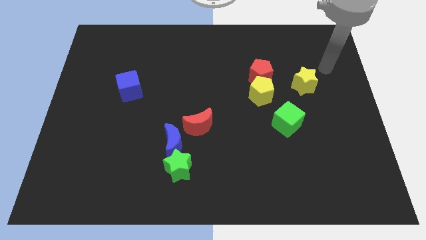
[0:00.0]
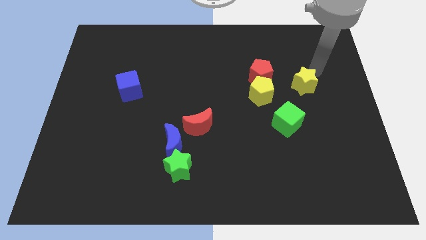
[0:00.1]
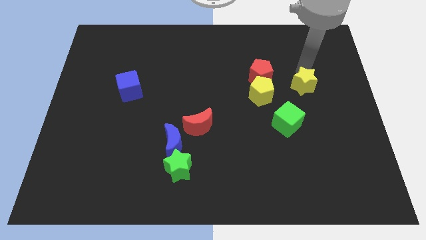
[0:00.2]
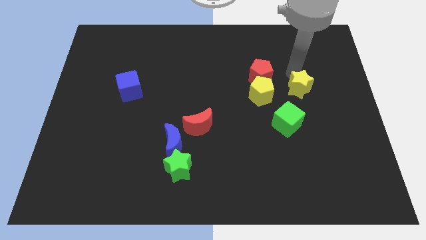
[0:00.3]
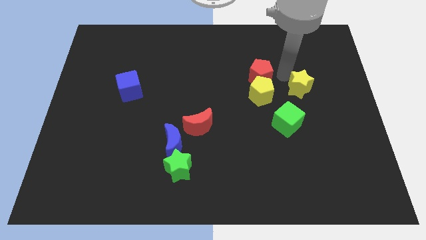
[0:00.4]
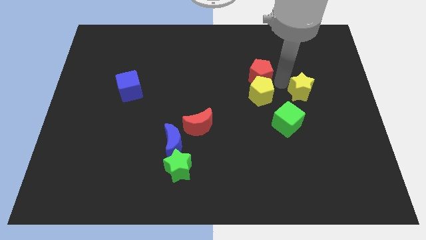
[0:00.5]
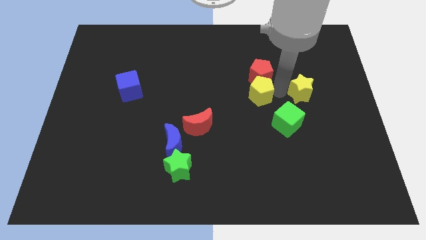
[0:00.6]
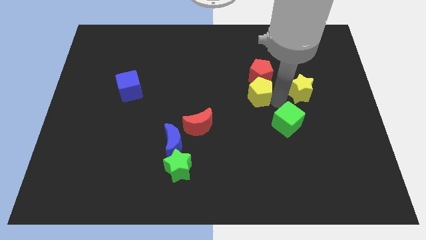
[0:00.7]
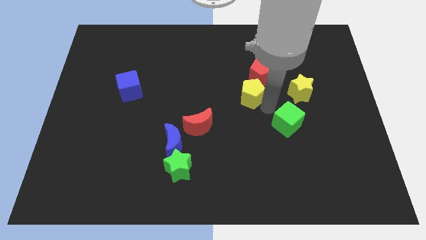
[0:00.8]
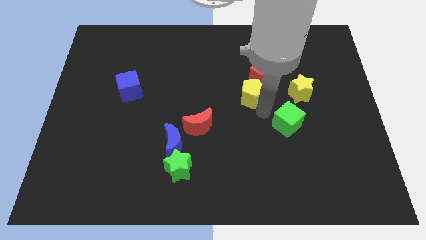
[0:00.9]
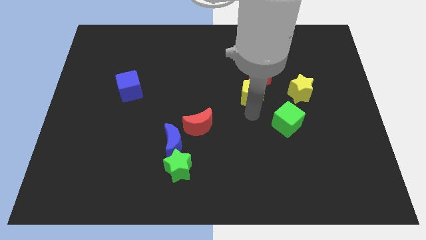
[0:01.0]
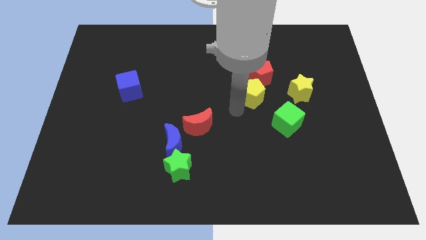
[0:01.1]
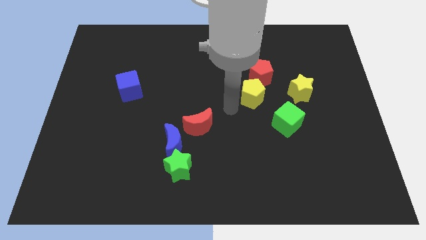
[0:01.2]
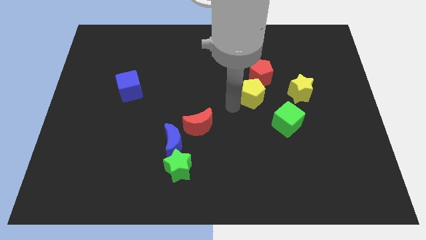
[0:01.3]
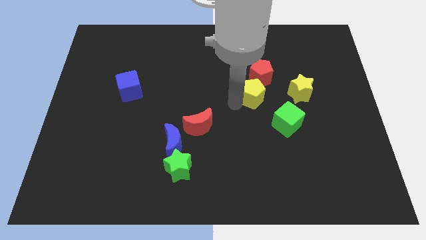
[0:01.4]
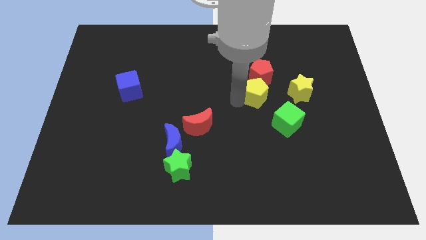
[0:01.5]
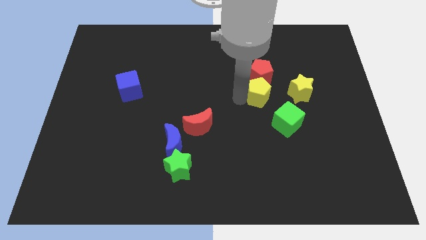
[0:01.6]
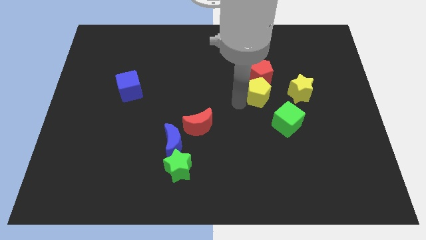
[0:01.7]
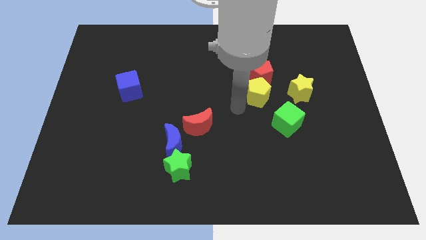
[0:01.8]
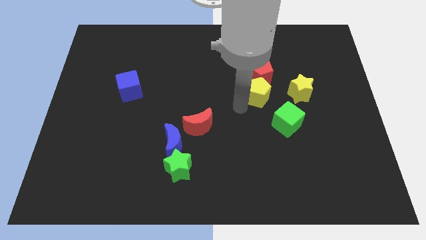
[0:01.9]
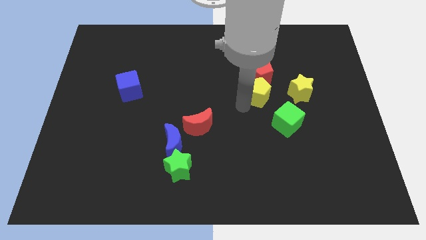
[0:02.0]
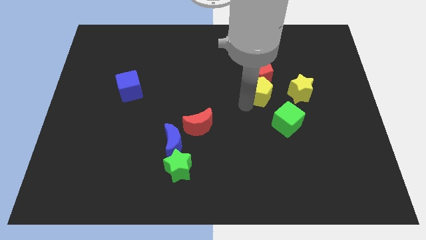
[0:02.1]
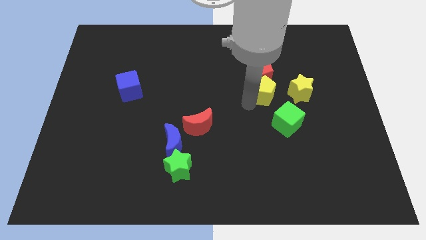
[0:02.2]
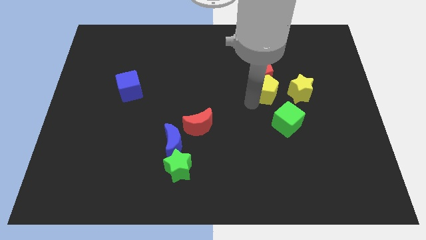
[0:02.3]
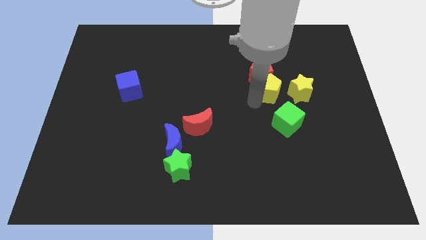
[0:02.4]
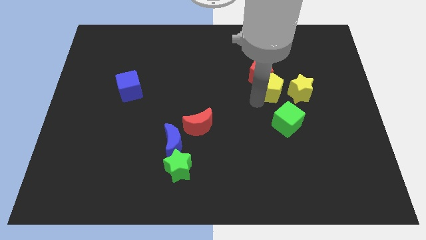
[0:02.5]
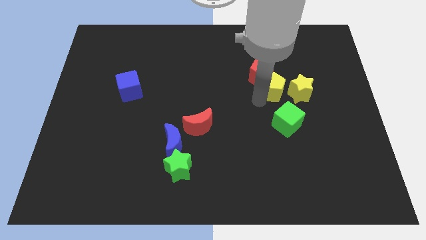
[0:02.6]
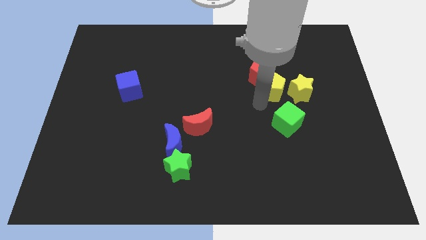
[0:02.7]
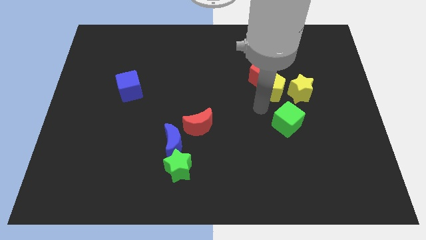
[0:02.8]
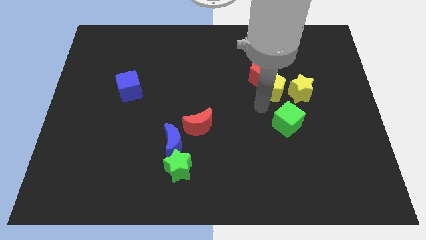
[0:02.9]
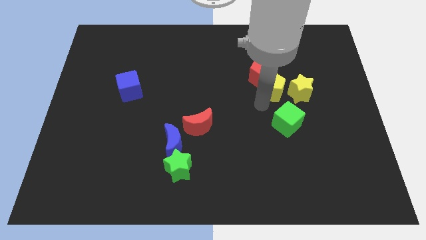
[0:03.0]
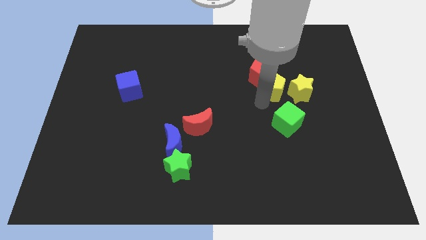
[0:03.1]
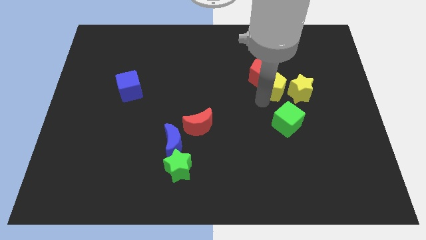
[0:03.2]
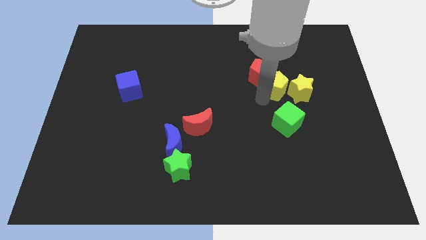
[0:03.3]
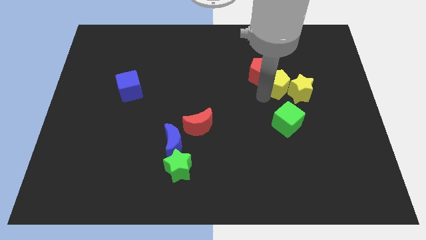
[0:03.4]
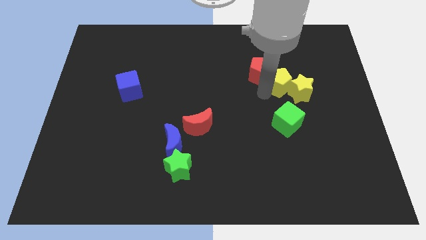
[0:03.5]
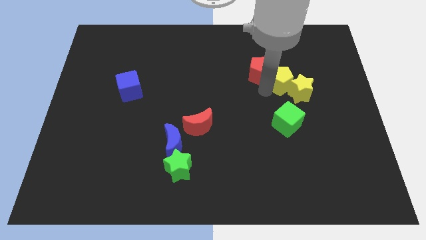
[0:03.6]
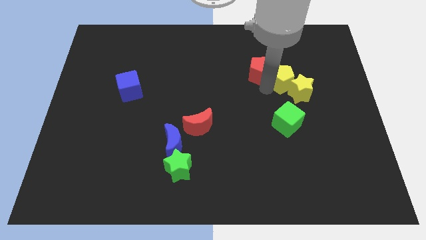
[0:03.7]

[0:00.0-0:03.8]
slightly slide the yellow pentagon upwards and to the right

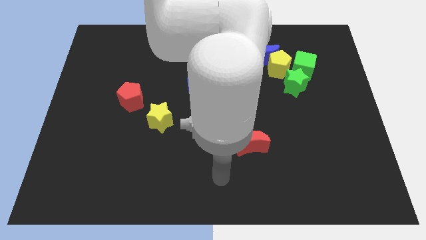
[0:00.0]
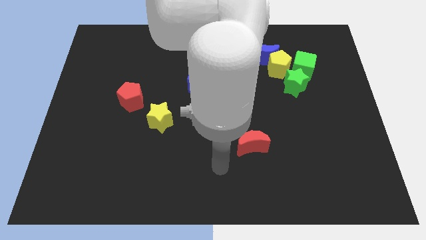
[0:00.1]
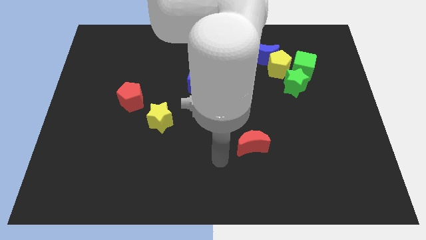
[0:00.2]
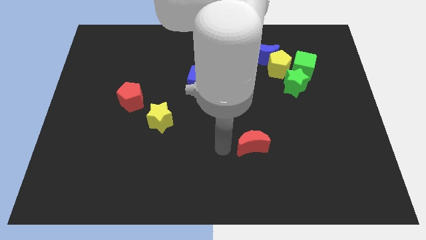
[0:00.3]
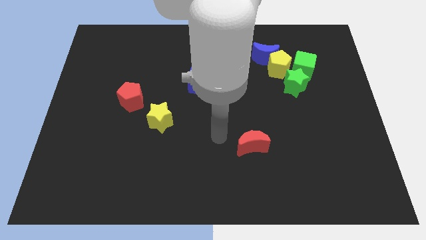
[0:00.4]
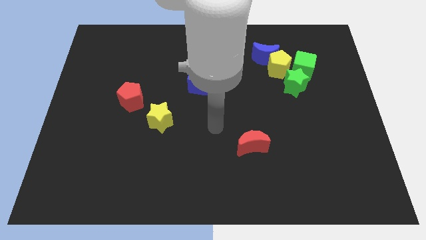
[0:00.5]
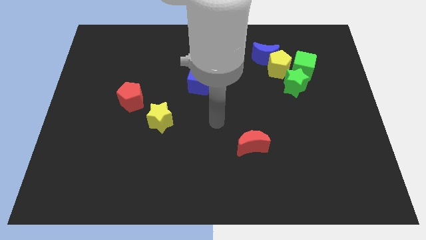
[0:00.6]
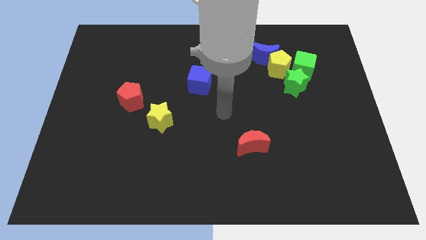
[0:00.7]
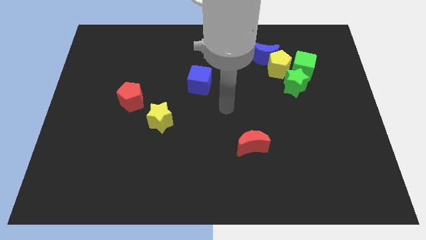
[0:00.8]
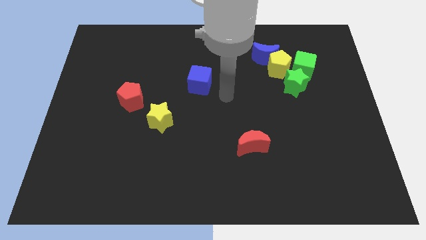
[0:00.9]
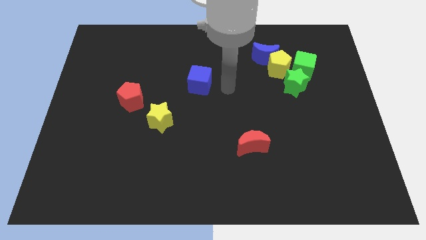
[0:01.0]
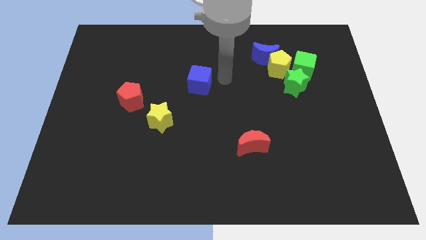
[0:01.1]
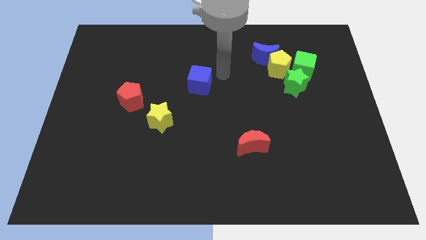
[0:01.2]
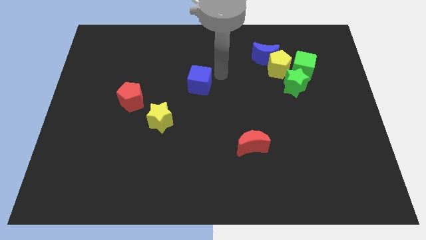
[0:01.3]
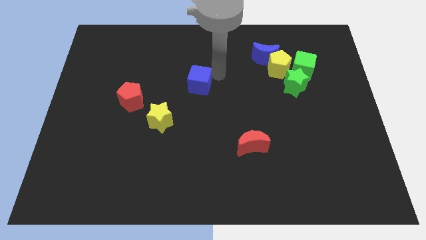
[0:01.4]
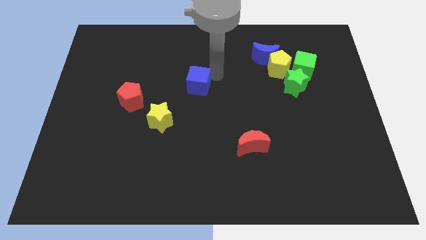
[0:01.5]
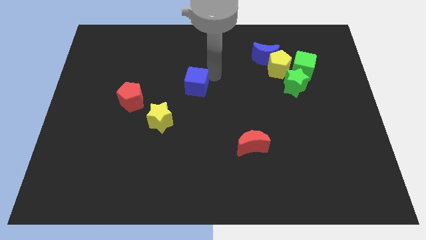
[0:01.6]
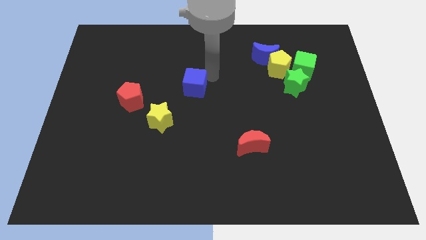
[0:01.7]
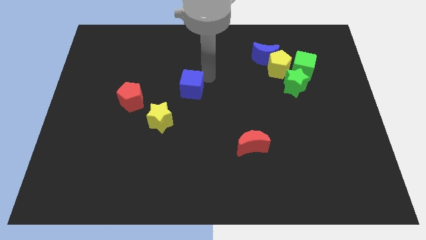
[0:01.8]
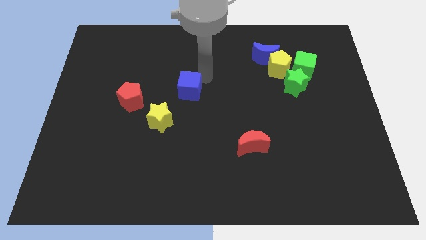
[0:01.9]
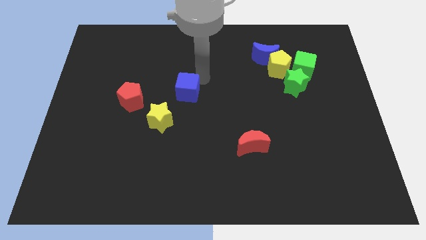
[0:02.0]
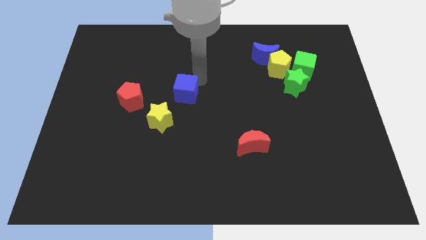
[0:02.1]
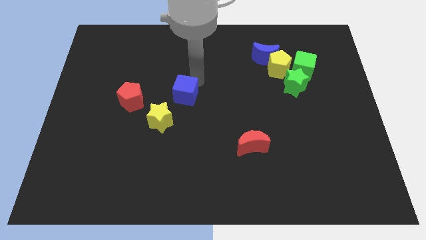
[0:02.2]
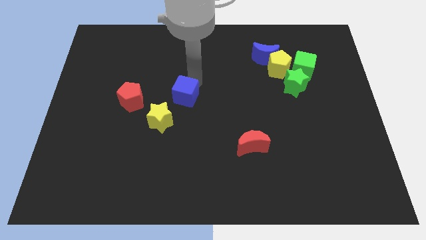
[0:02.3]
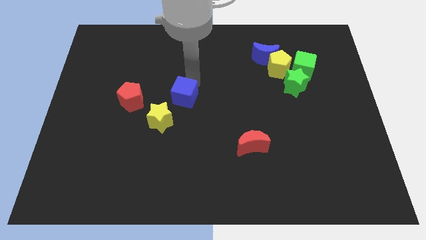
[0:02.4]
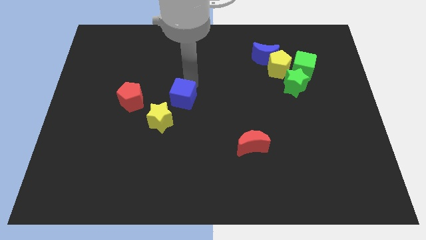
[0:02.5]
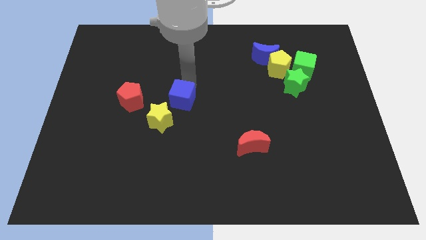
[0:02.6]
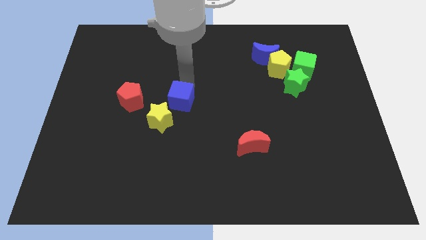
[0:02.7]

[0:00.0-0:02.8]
move the blue cube a bit diagonally downwards and to the left

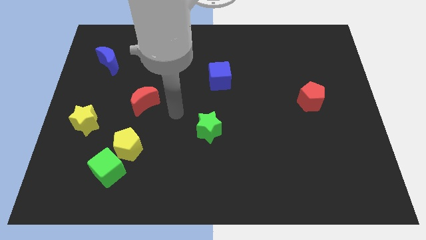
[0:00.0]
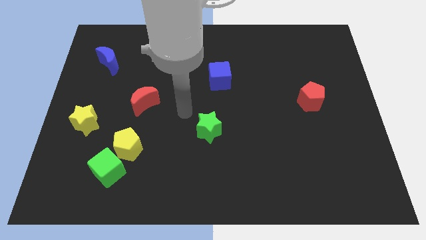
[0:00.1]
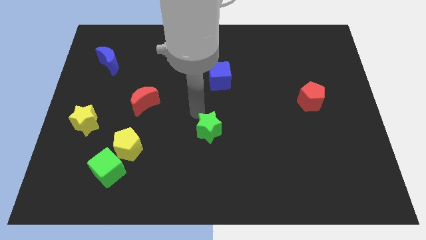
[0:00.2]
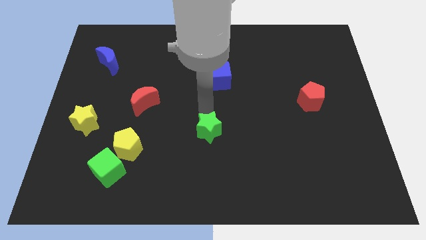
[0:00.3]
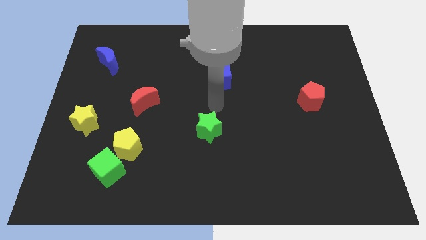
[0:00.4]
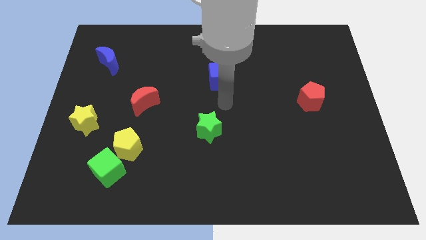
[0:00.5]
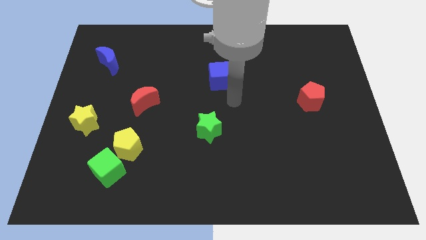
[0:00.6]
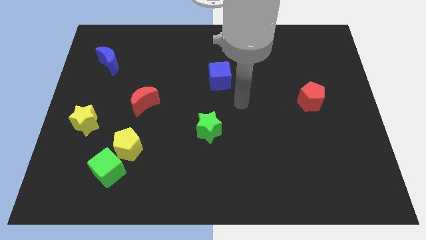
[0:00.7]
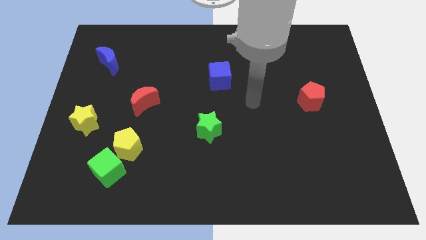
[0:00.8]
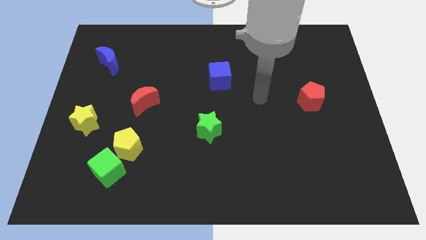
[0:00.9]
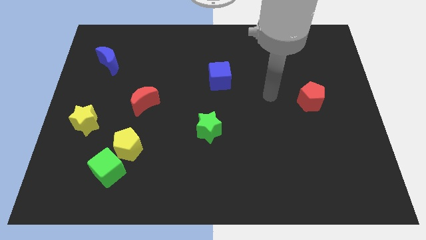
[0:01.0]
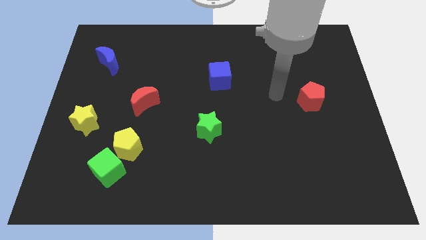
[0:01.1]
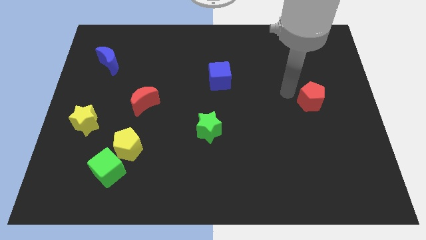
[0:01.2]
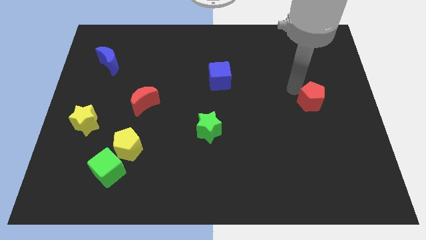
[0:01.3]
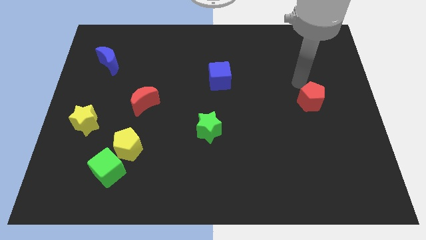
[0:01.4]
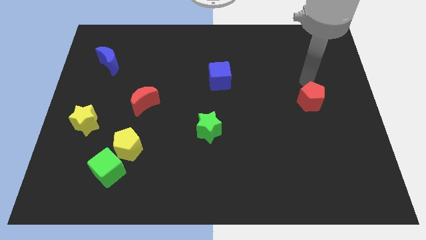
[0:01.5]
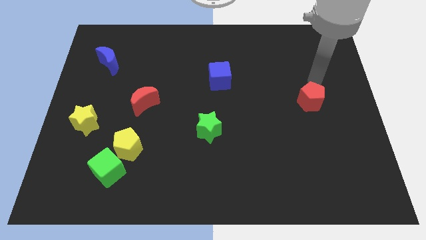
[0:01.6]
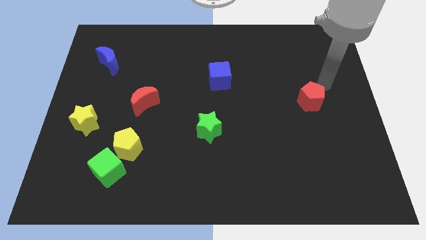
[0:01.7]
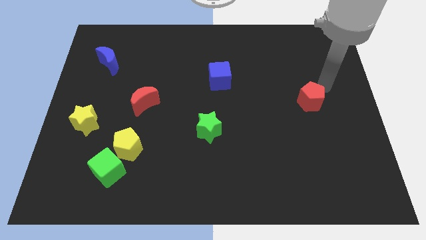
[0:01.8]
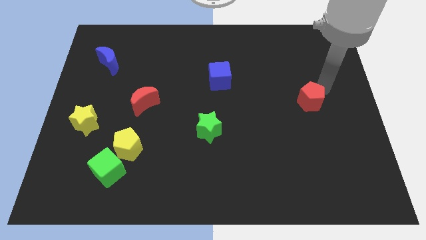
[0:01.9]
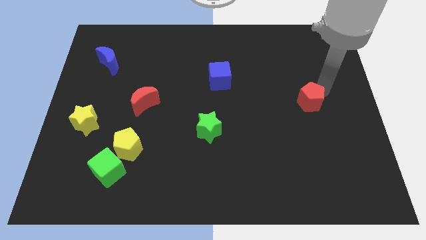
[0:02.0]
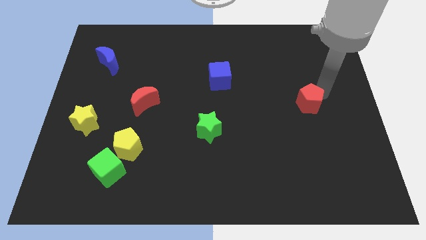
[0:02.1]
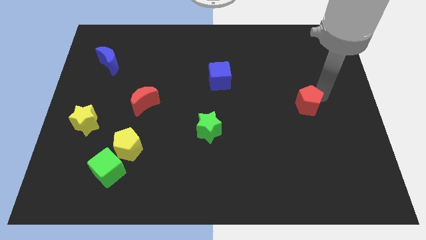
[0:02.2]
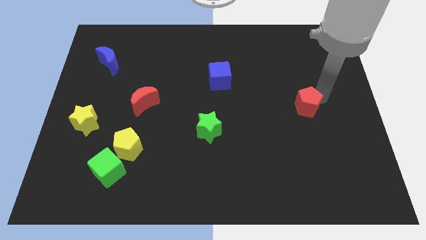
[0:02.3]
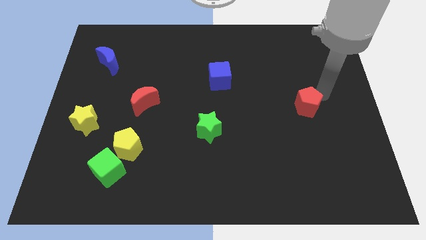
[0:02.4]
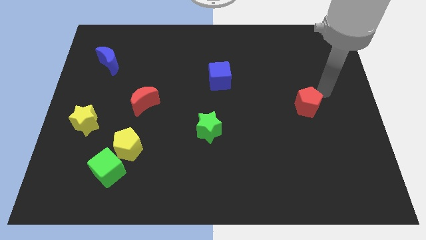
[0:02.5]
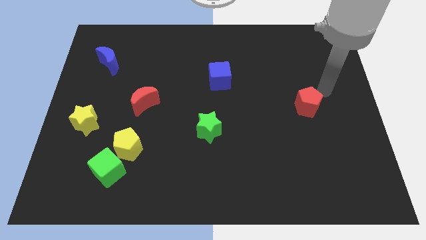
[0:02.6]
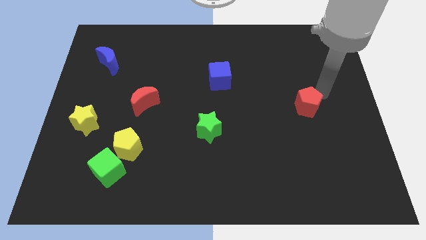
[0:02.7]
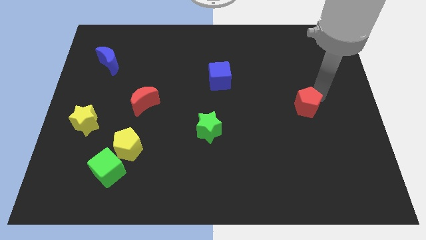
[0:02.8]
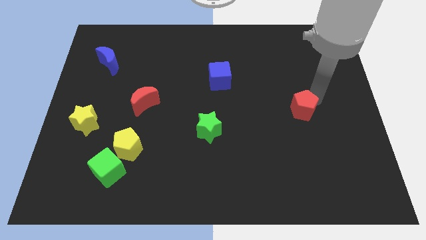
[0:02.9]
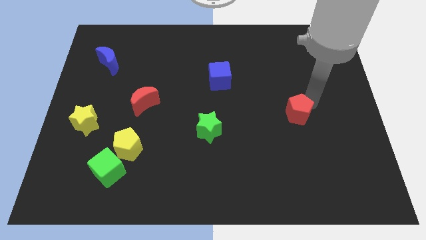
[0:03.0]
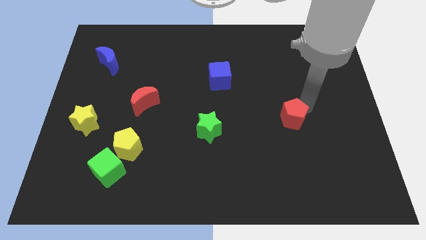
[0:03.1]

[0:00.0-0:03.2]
slightly move the red pentagon downwards and left diagonally
